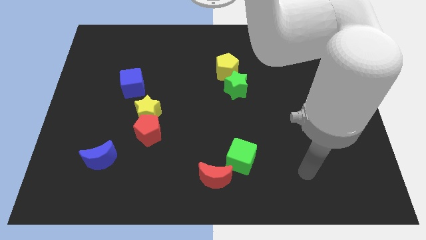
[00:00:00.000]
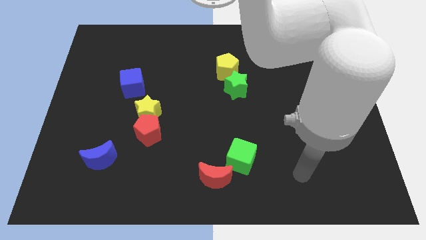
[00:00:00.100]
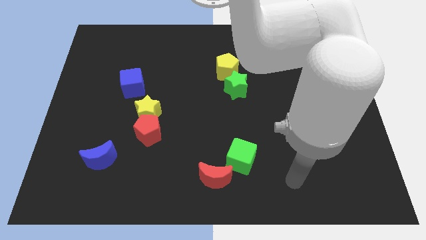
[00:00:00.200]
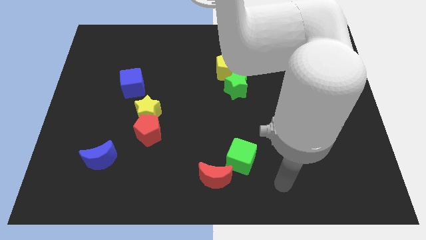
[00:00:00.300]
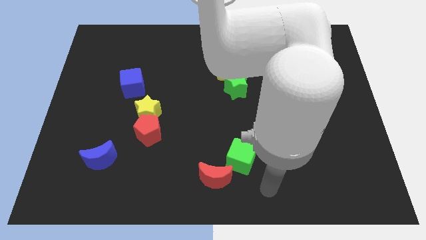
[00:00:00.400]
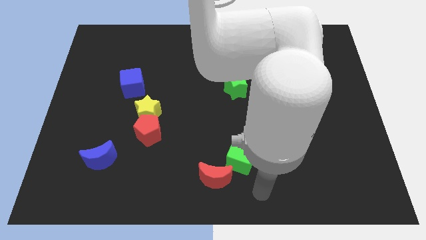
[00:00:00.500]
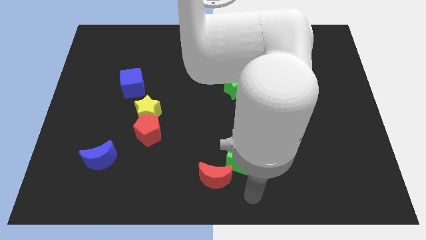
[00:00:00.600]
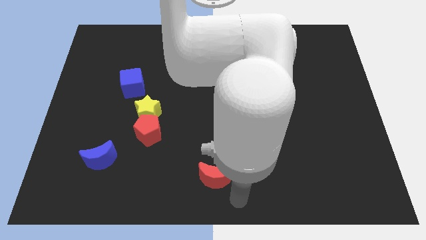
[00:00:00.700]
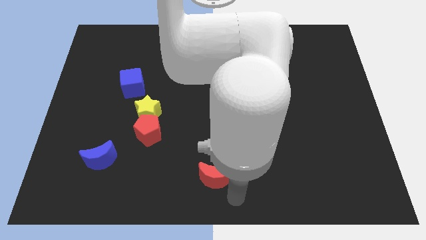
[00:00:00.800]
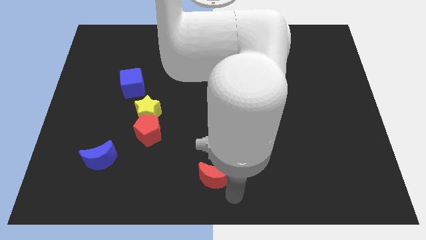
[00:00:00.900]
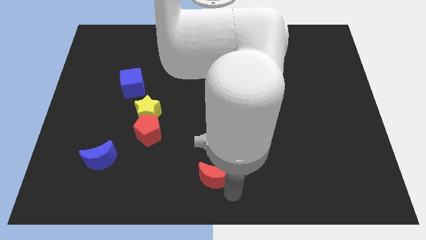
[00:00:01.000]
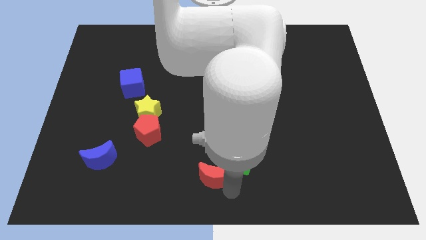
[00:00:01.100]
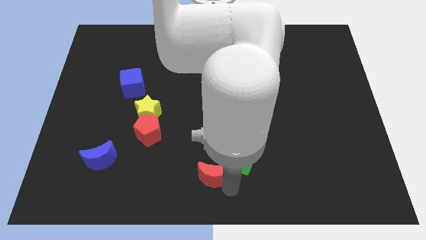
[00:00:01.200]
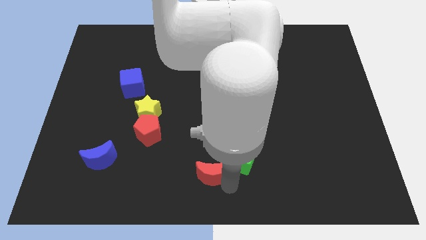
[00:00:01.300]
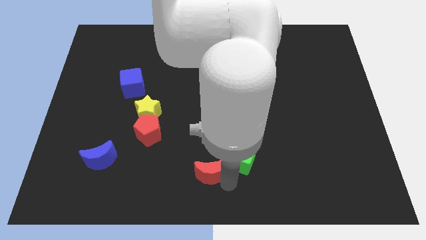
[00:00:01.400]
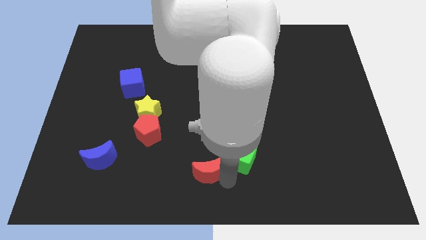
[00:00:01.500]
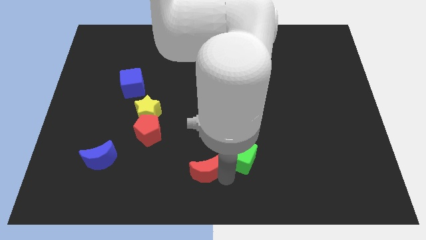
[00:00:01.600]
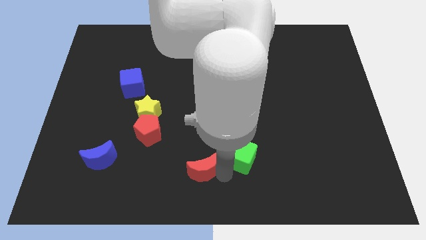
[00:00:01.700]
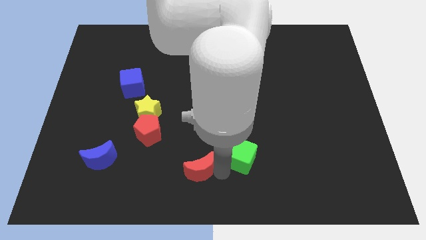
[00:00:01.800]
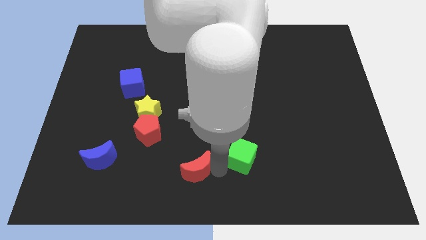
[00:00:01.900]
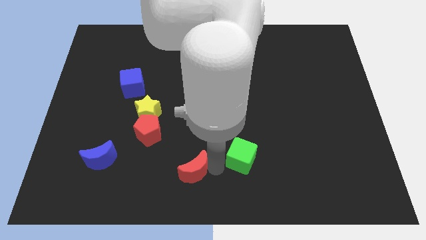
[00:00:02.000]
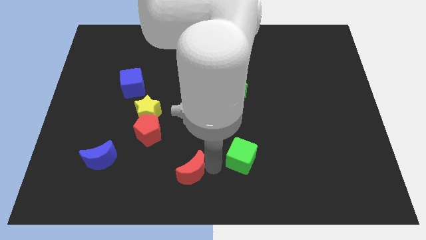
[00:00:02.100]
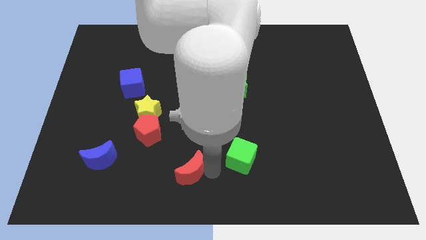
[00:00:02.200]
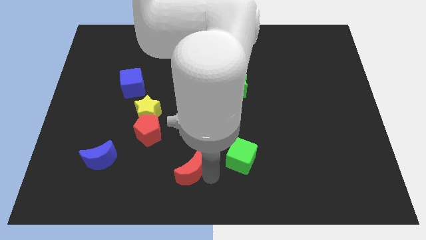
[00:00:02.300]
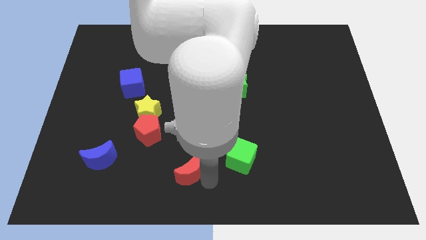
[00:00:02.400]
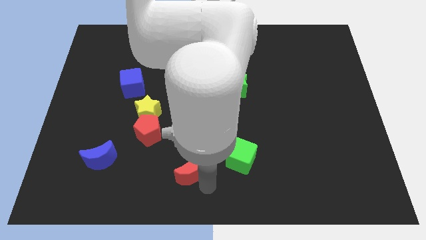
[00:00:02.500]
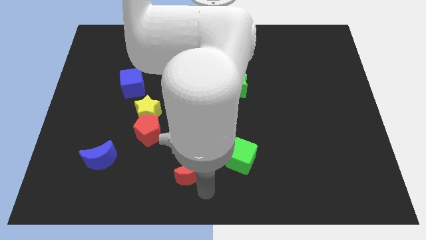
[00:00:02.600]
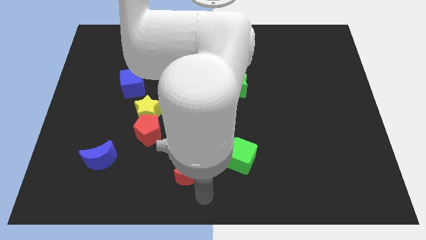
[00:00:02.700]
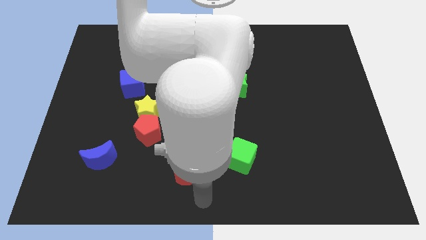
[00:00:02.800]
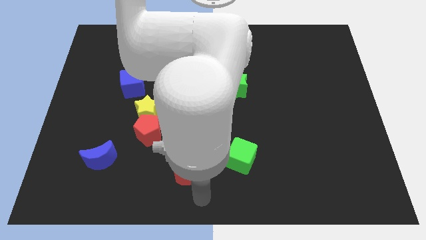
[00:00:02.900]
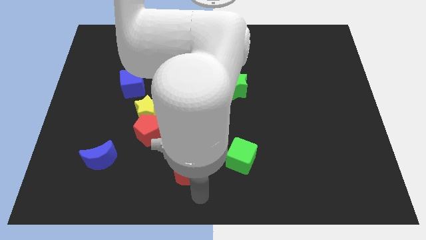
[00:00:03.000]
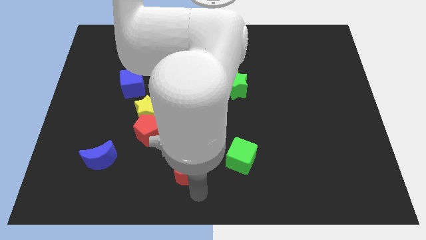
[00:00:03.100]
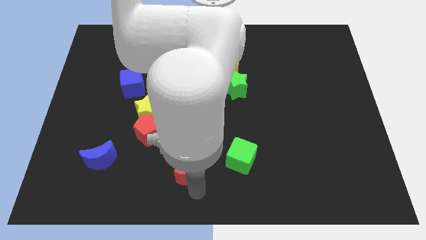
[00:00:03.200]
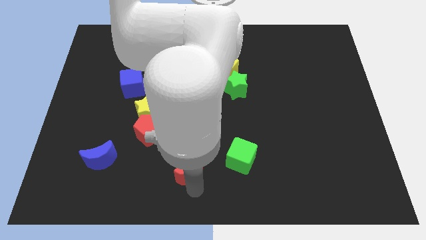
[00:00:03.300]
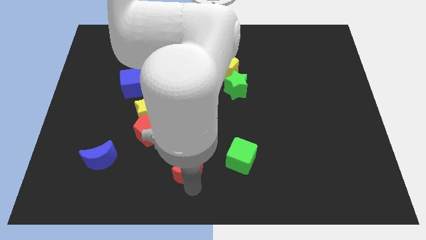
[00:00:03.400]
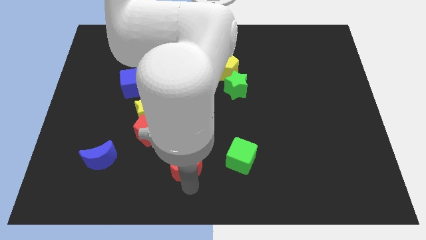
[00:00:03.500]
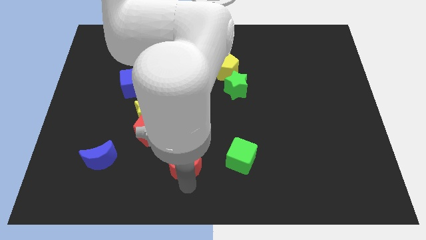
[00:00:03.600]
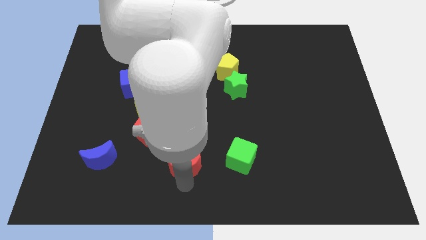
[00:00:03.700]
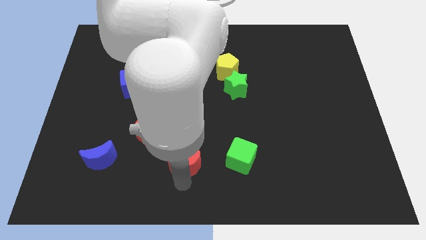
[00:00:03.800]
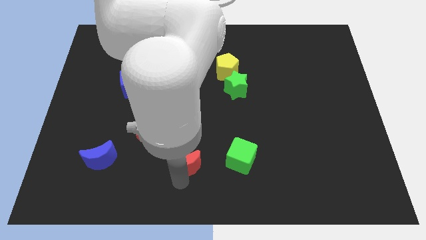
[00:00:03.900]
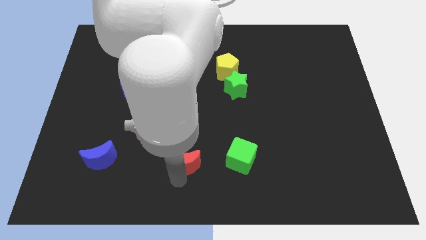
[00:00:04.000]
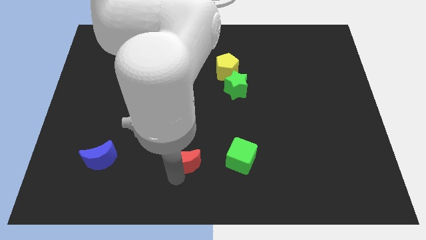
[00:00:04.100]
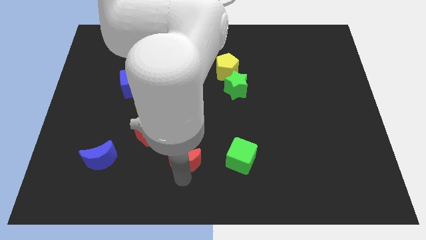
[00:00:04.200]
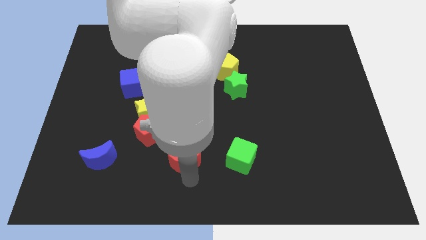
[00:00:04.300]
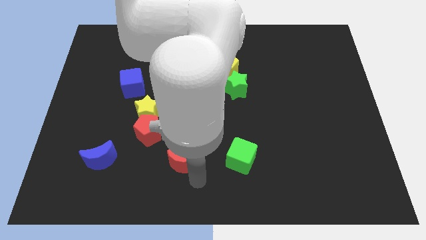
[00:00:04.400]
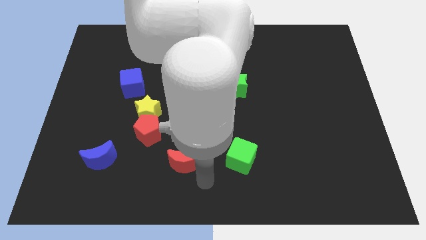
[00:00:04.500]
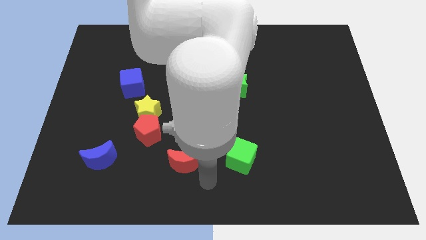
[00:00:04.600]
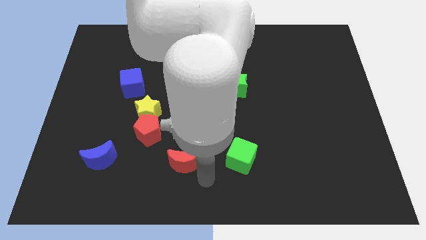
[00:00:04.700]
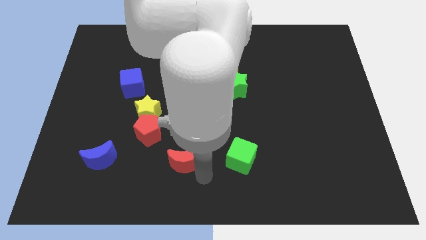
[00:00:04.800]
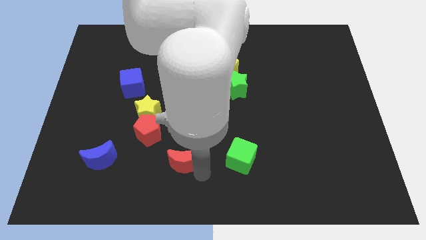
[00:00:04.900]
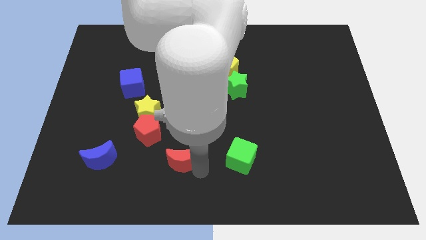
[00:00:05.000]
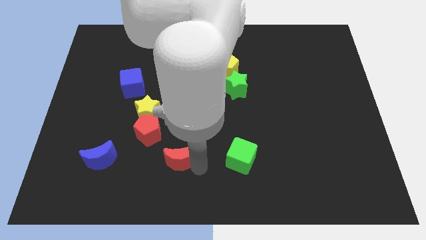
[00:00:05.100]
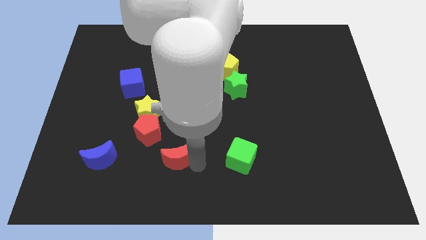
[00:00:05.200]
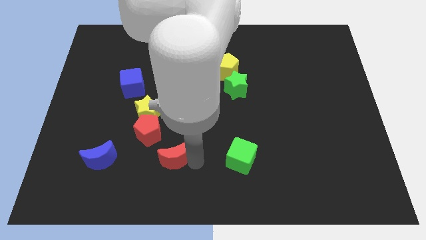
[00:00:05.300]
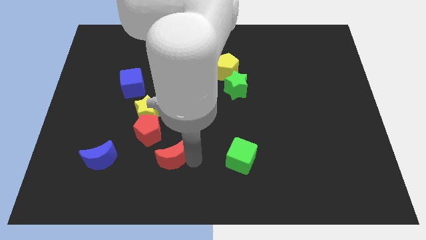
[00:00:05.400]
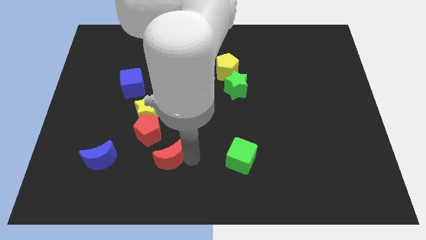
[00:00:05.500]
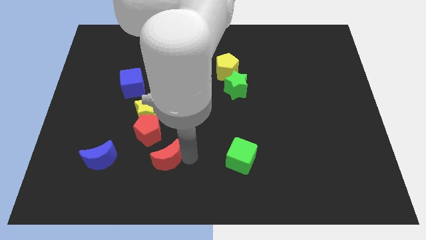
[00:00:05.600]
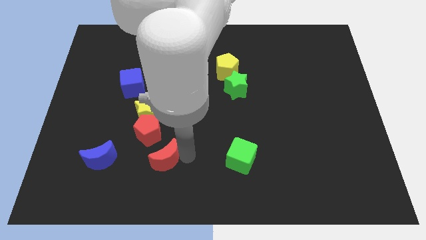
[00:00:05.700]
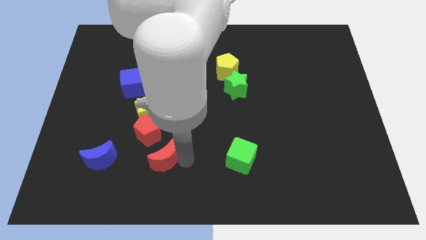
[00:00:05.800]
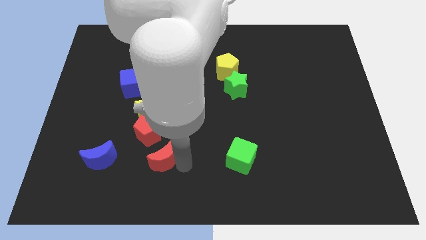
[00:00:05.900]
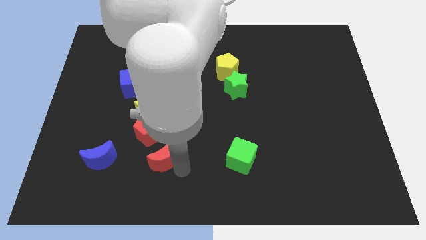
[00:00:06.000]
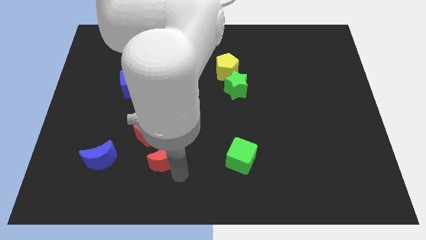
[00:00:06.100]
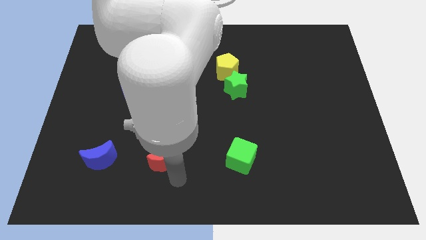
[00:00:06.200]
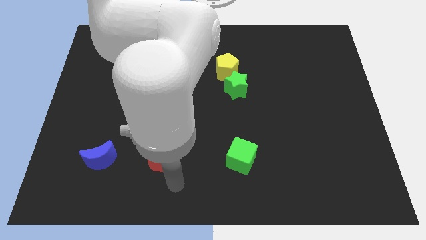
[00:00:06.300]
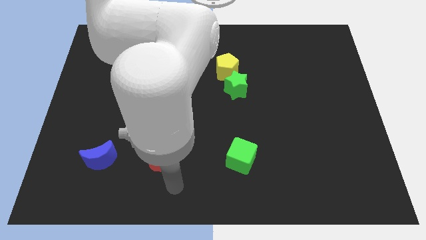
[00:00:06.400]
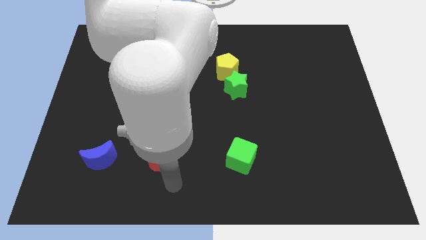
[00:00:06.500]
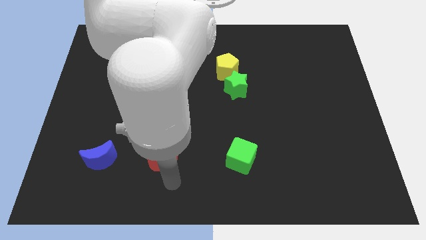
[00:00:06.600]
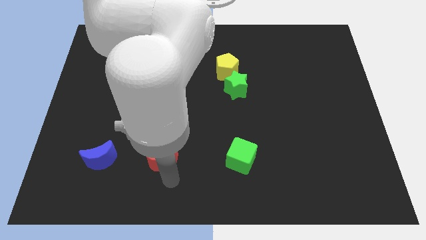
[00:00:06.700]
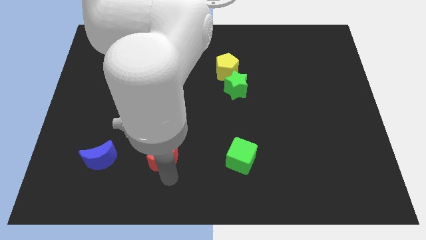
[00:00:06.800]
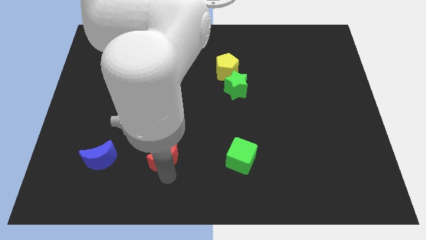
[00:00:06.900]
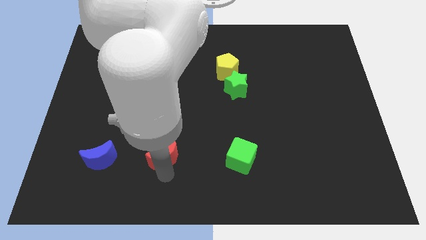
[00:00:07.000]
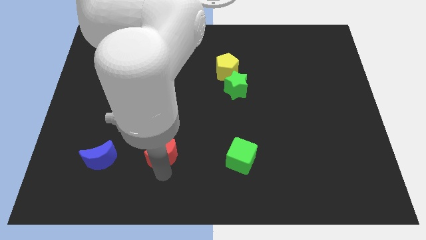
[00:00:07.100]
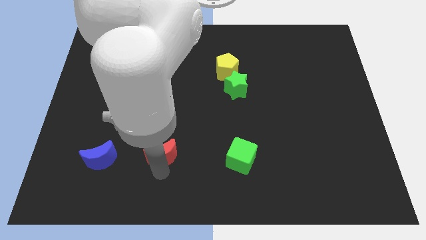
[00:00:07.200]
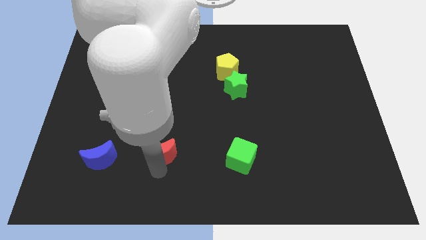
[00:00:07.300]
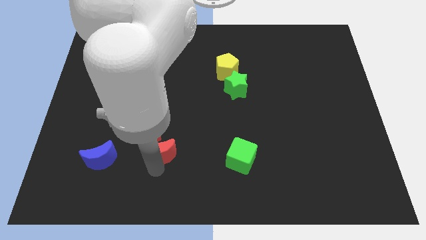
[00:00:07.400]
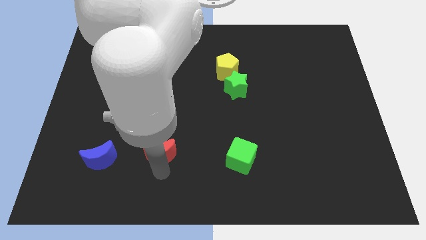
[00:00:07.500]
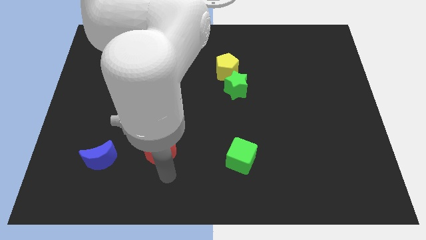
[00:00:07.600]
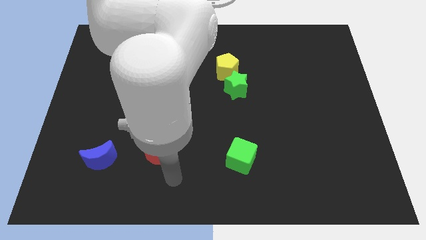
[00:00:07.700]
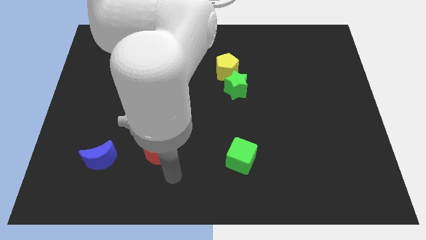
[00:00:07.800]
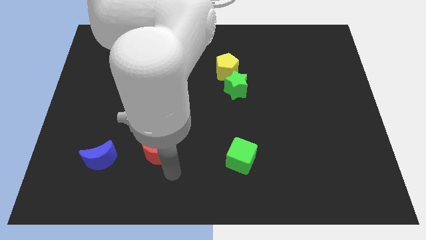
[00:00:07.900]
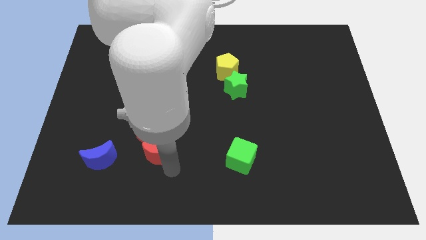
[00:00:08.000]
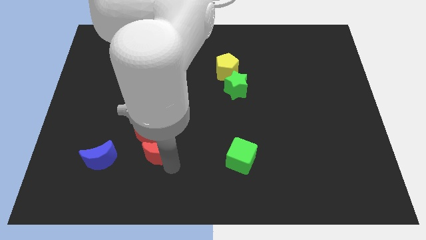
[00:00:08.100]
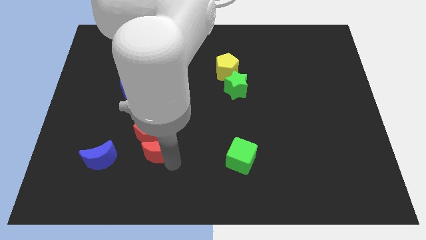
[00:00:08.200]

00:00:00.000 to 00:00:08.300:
slide the red moon to the red pentagon
